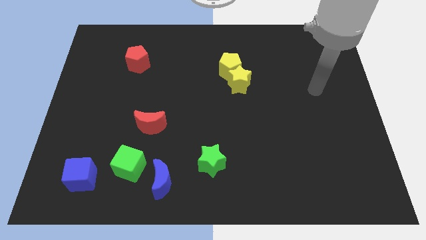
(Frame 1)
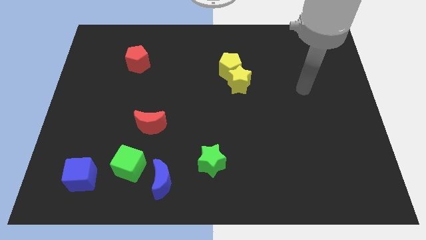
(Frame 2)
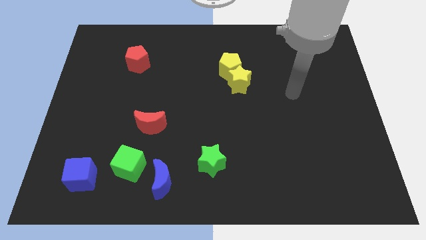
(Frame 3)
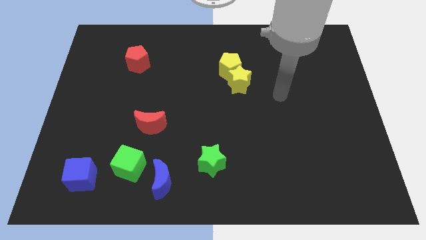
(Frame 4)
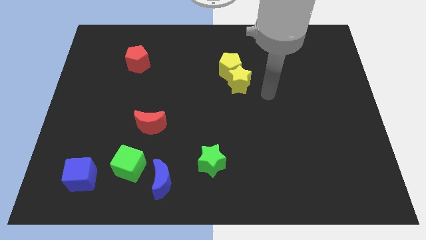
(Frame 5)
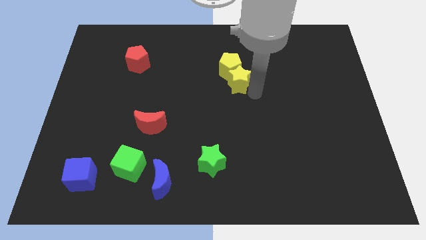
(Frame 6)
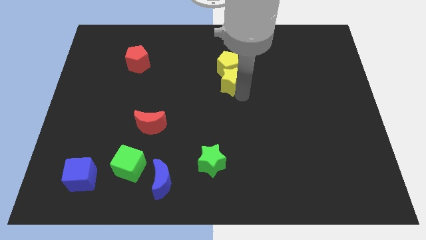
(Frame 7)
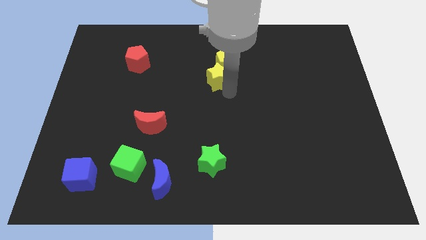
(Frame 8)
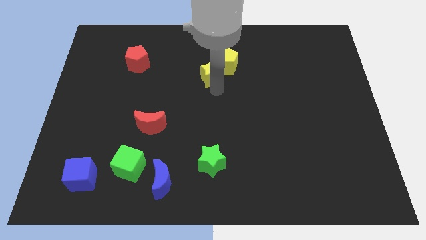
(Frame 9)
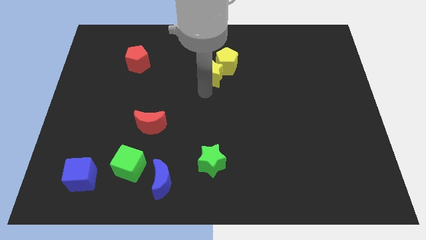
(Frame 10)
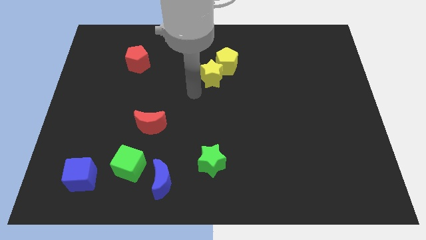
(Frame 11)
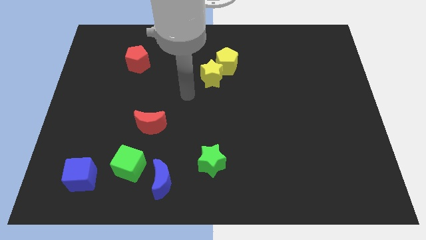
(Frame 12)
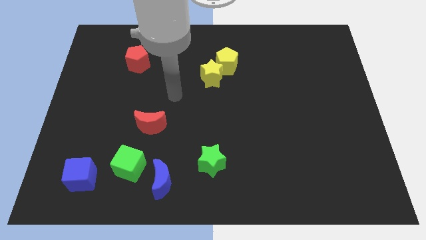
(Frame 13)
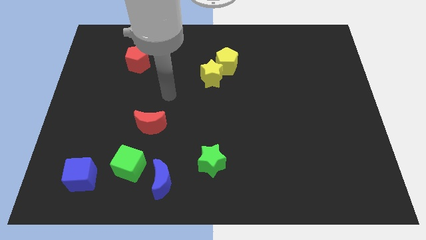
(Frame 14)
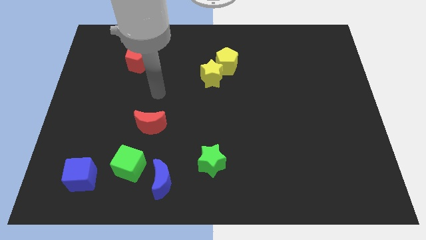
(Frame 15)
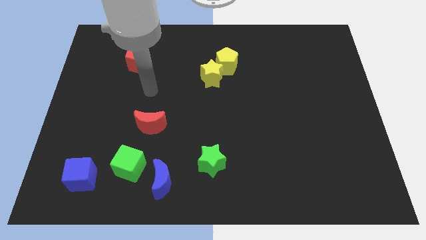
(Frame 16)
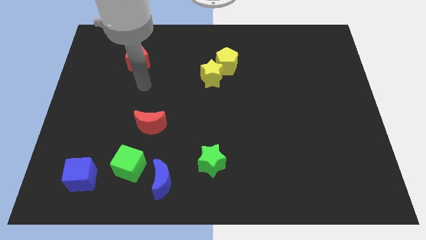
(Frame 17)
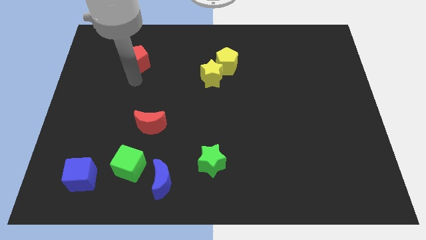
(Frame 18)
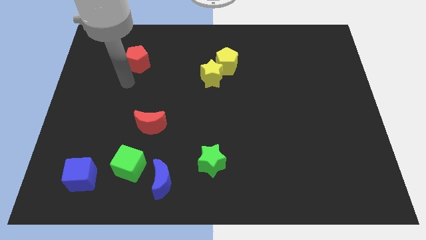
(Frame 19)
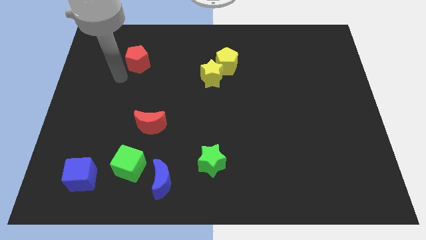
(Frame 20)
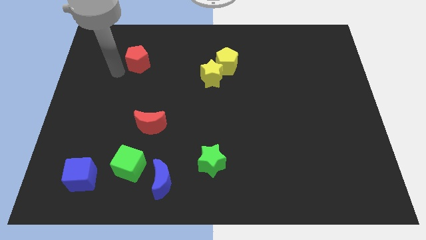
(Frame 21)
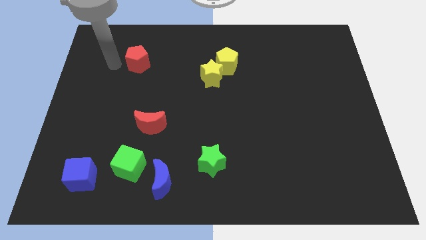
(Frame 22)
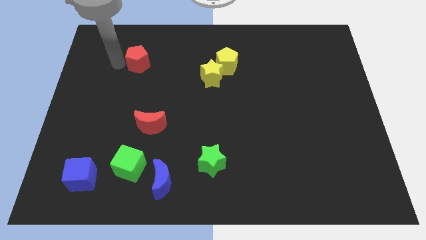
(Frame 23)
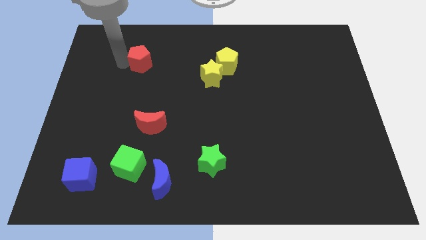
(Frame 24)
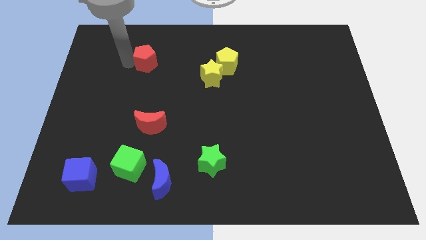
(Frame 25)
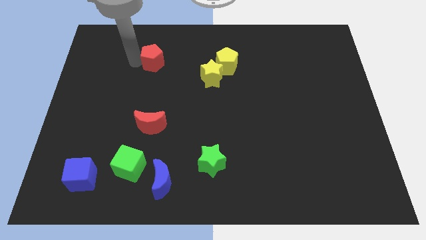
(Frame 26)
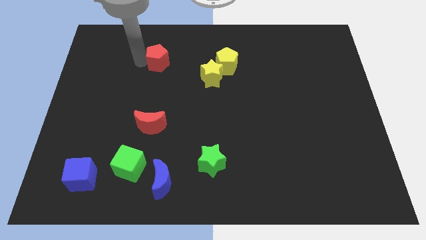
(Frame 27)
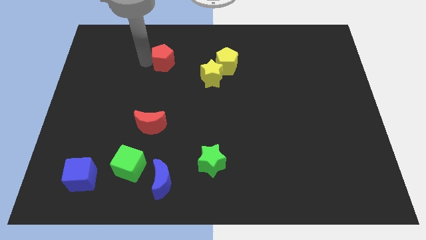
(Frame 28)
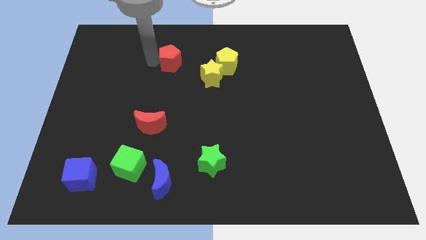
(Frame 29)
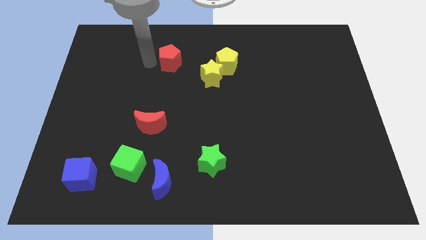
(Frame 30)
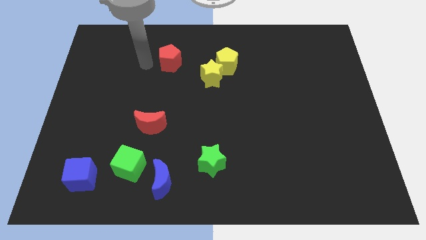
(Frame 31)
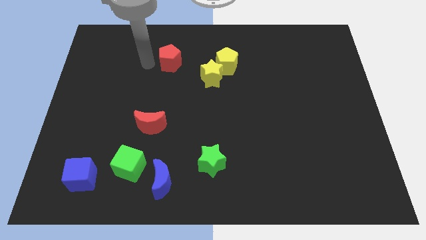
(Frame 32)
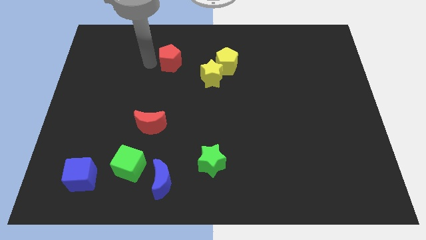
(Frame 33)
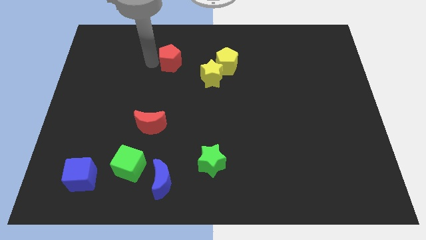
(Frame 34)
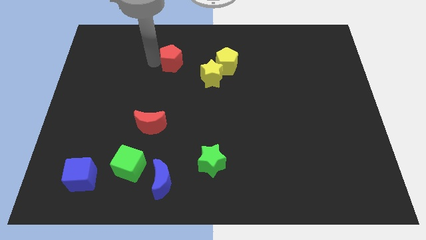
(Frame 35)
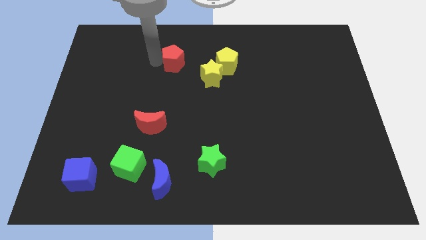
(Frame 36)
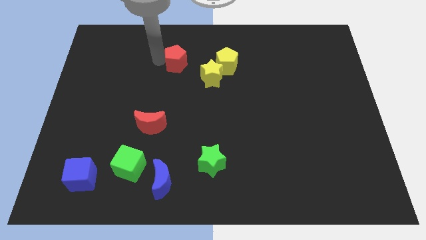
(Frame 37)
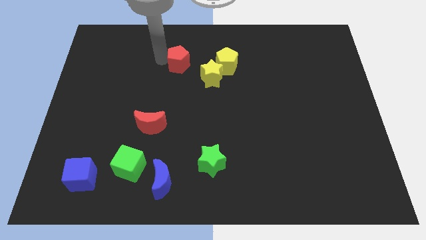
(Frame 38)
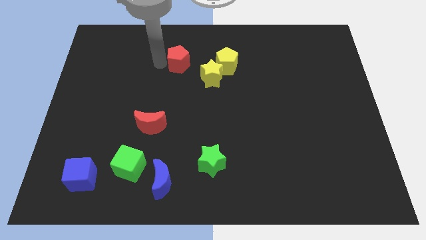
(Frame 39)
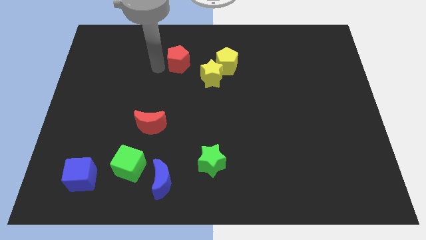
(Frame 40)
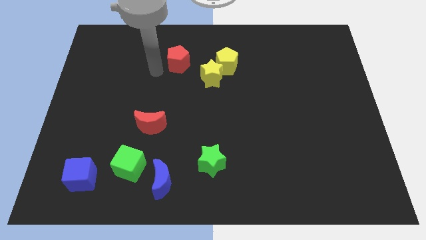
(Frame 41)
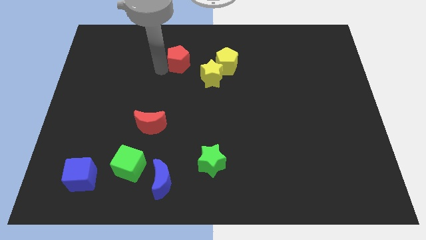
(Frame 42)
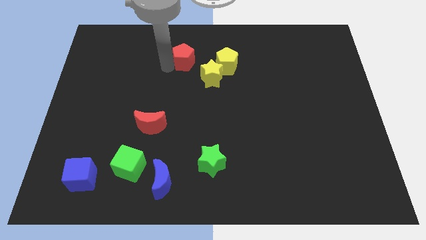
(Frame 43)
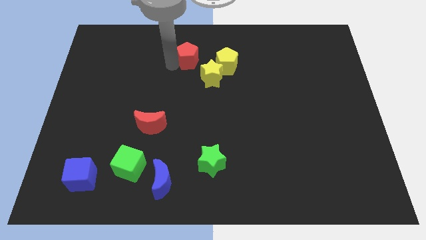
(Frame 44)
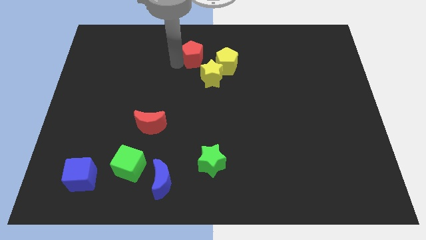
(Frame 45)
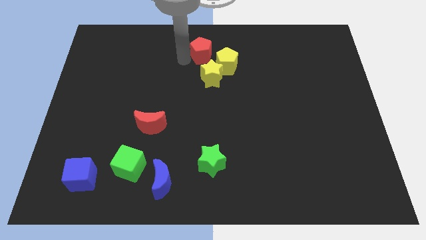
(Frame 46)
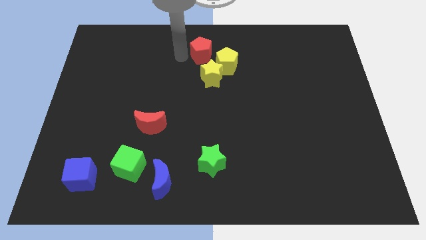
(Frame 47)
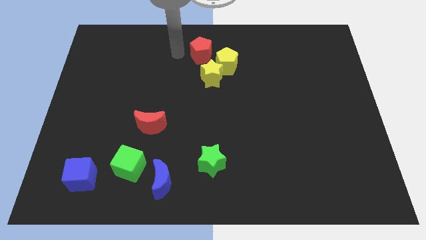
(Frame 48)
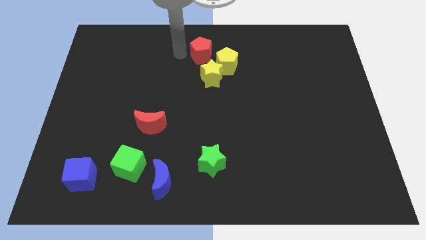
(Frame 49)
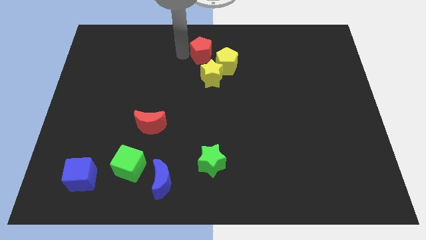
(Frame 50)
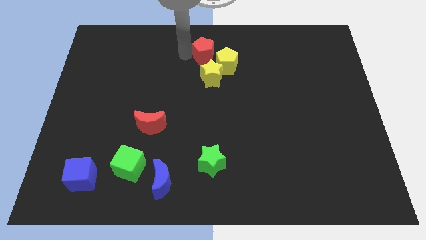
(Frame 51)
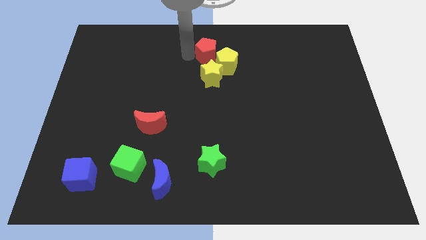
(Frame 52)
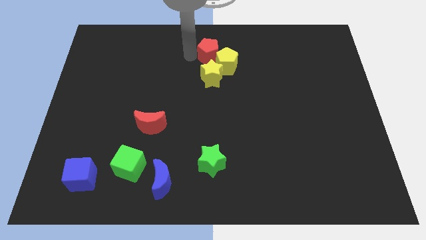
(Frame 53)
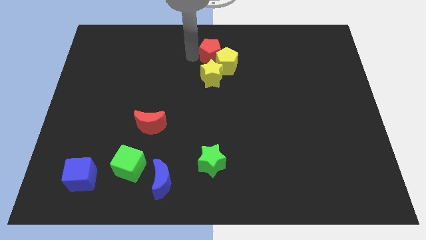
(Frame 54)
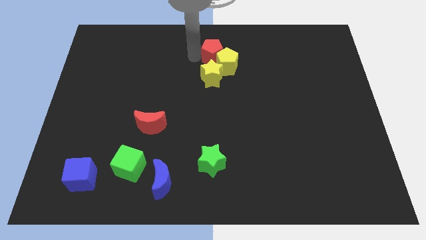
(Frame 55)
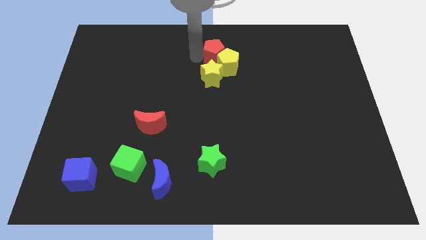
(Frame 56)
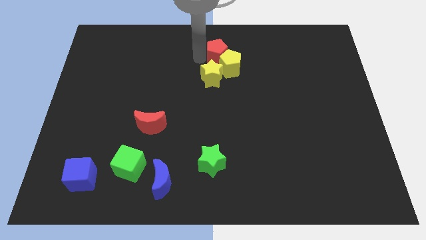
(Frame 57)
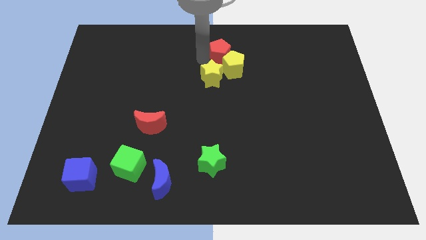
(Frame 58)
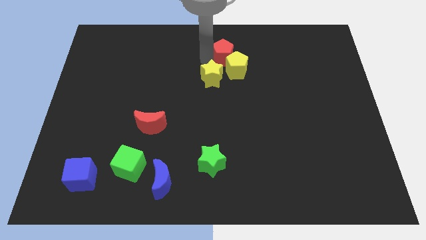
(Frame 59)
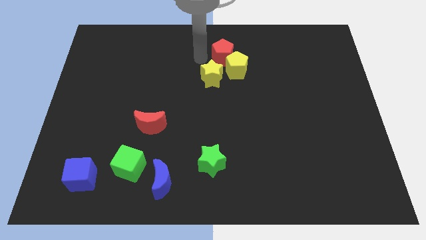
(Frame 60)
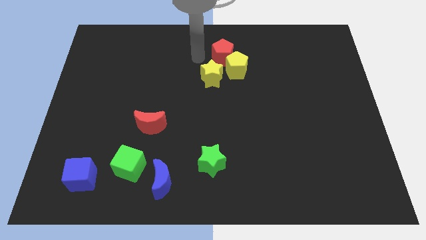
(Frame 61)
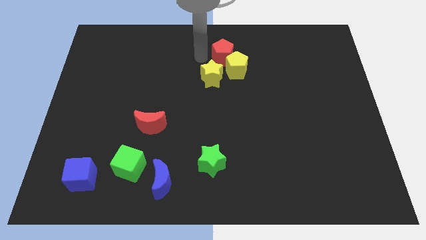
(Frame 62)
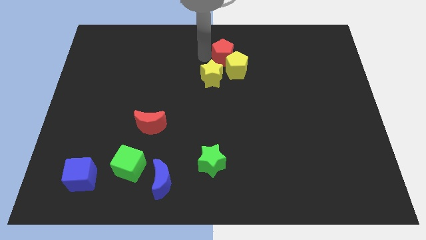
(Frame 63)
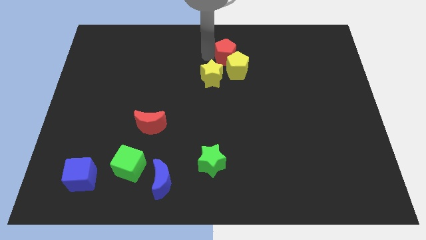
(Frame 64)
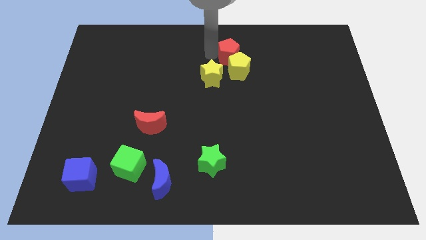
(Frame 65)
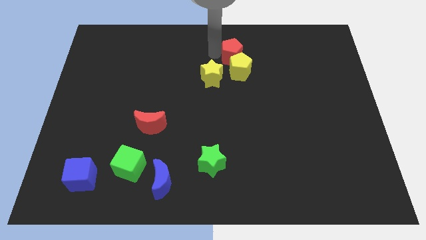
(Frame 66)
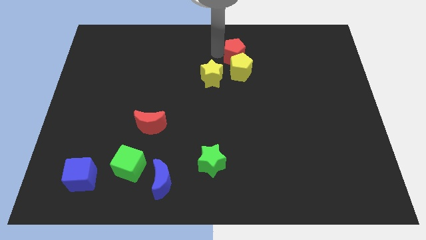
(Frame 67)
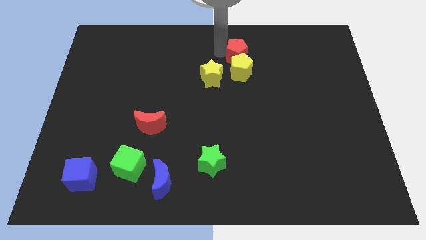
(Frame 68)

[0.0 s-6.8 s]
slide the red pentagon to the top right side of the yellow pentagon

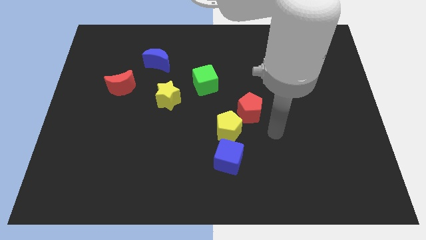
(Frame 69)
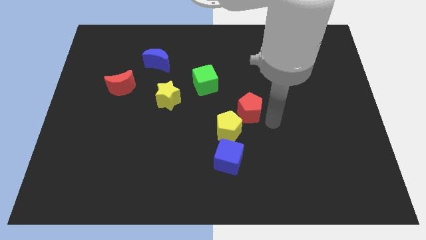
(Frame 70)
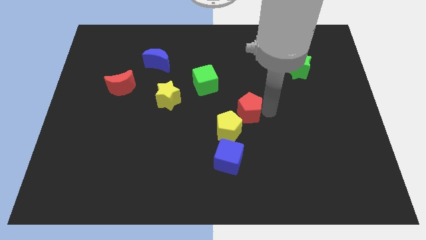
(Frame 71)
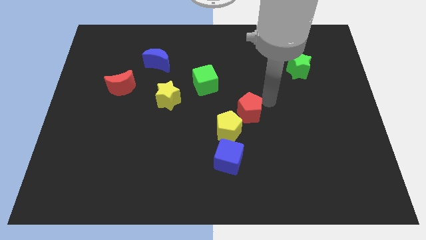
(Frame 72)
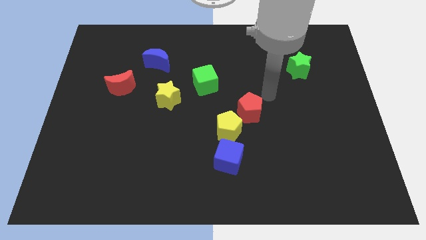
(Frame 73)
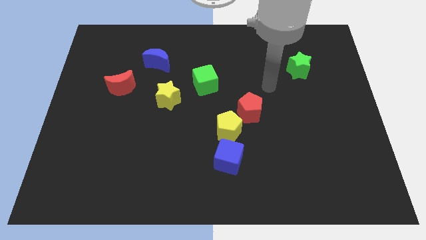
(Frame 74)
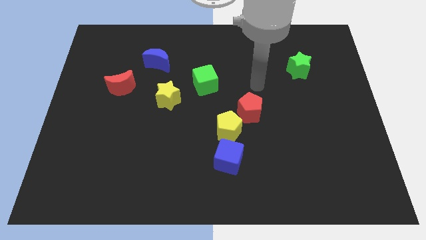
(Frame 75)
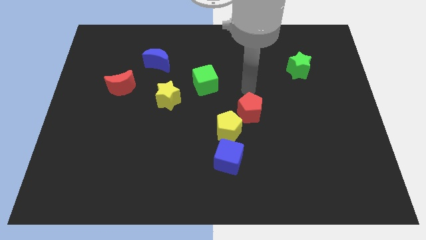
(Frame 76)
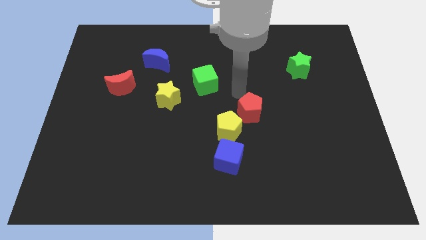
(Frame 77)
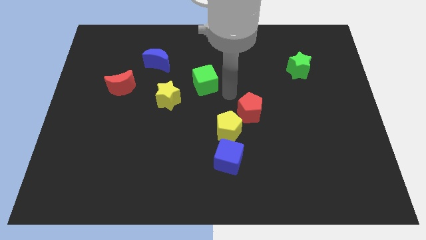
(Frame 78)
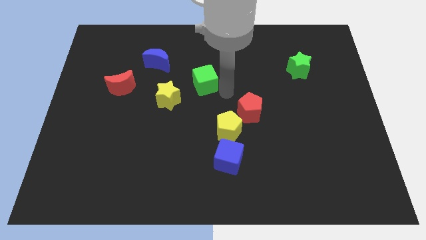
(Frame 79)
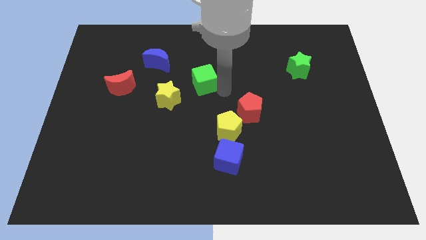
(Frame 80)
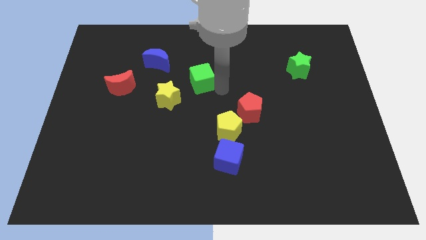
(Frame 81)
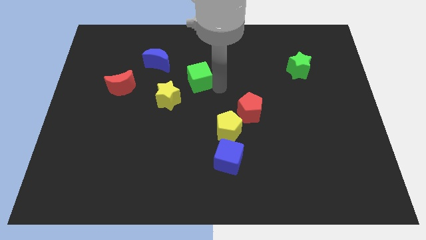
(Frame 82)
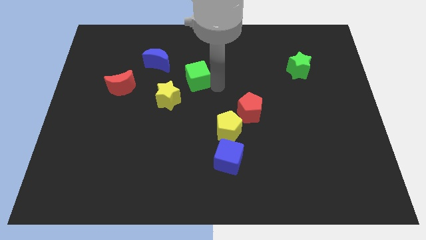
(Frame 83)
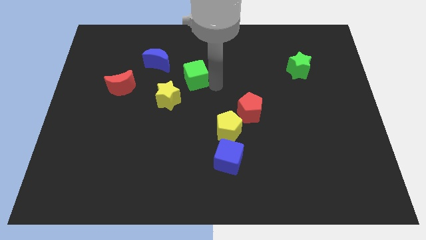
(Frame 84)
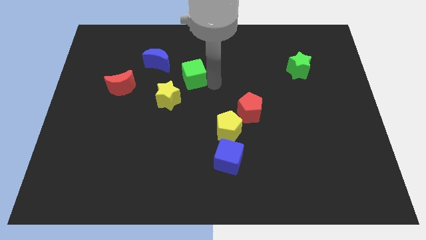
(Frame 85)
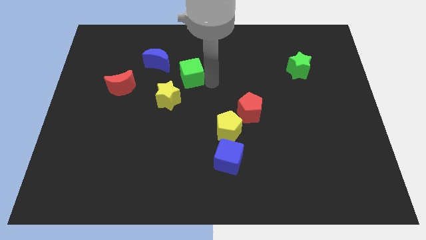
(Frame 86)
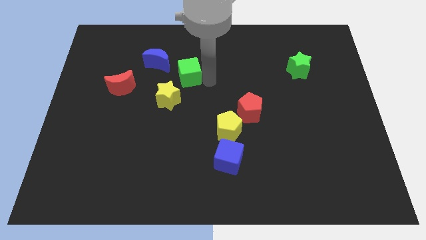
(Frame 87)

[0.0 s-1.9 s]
move the green cube to the top of the yellow star
